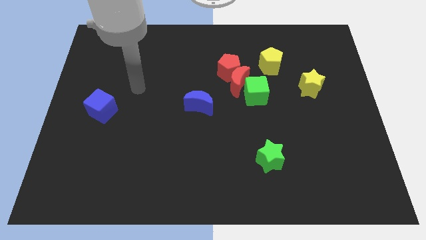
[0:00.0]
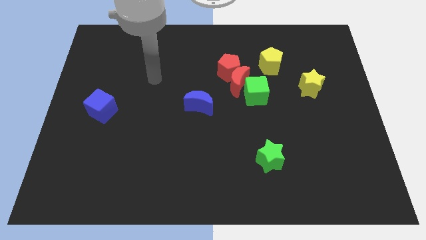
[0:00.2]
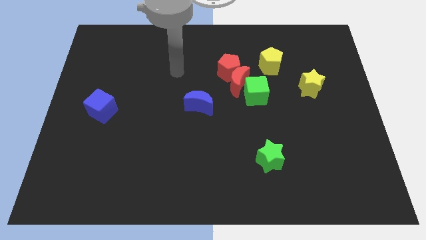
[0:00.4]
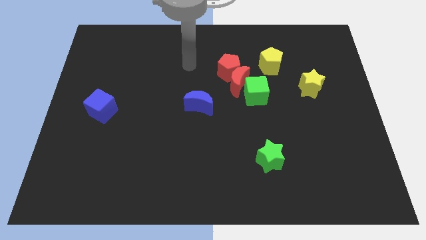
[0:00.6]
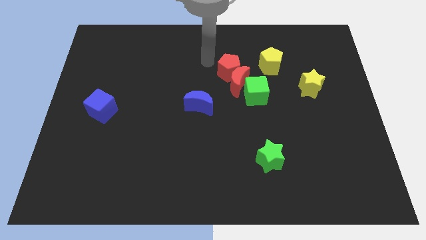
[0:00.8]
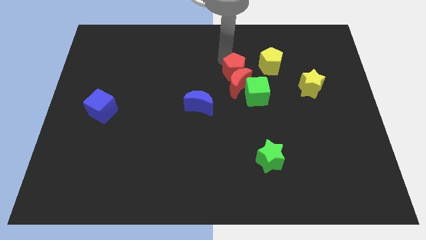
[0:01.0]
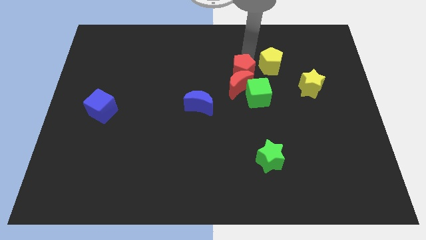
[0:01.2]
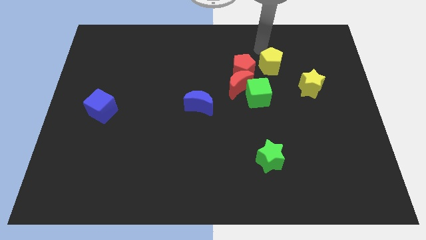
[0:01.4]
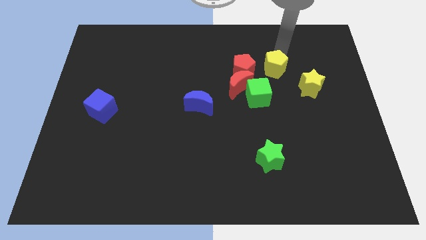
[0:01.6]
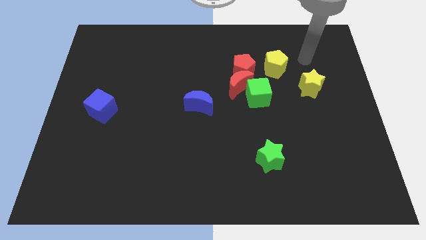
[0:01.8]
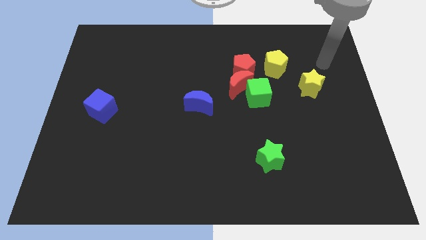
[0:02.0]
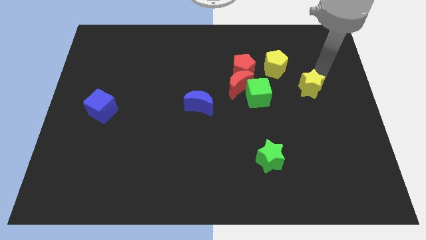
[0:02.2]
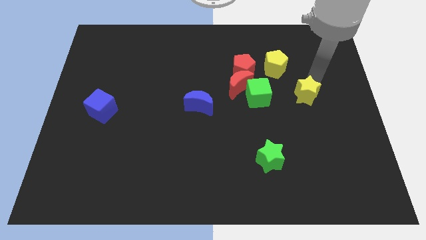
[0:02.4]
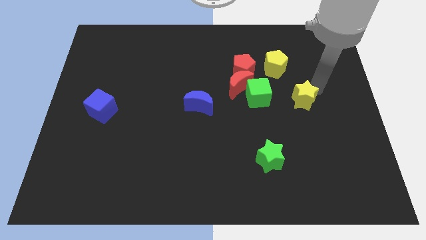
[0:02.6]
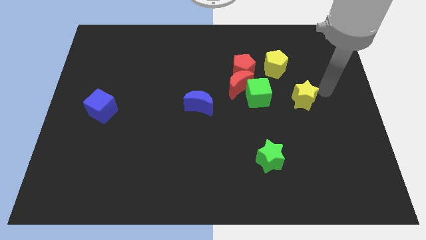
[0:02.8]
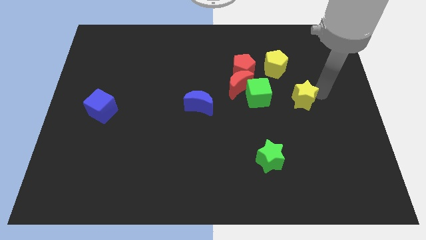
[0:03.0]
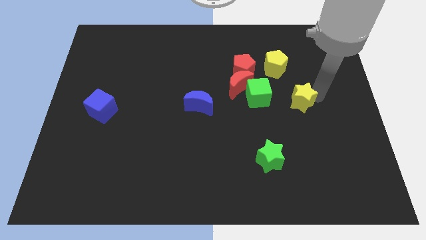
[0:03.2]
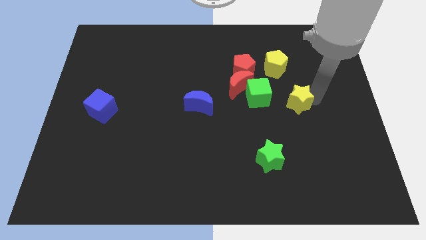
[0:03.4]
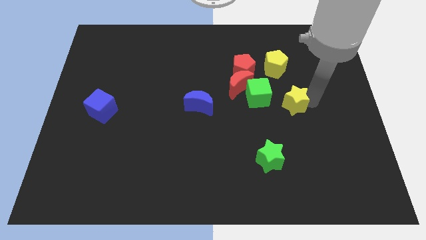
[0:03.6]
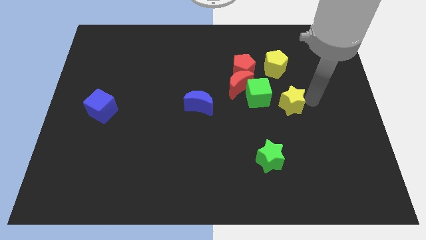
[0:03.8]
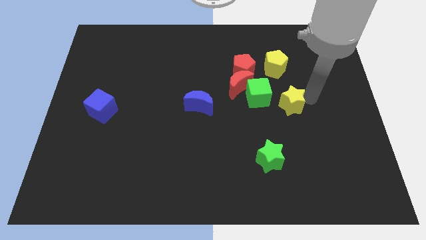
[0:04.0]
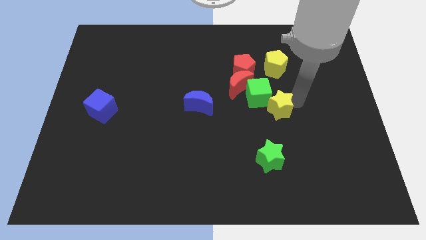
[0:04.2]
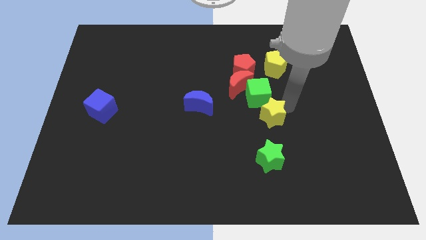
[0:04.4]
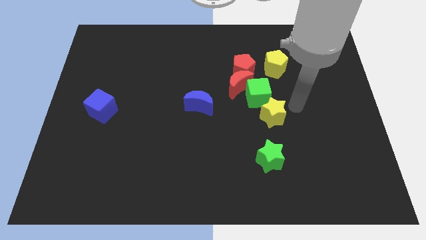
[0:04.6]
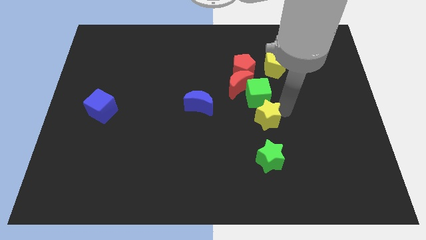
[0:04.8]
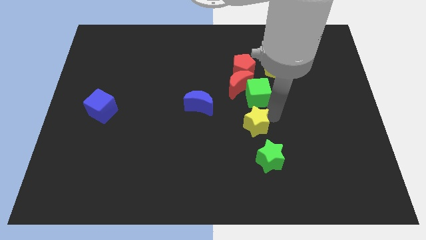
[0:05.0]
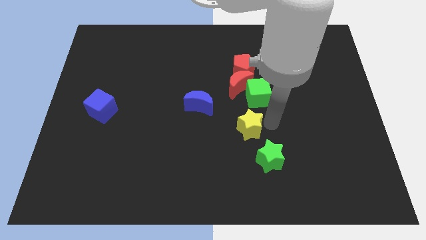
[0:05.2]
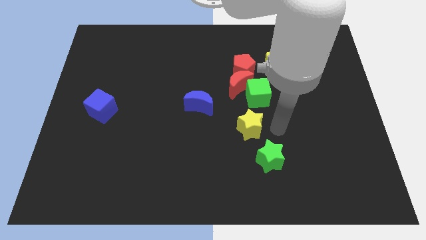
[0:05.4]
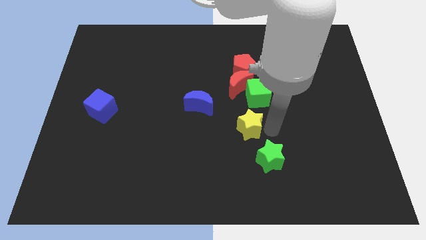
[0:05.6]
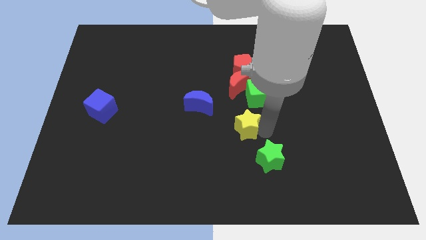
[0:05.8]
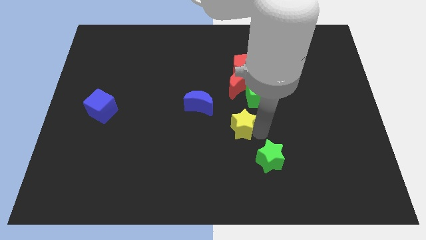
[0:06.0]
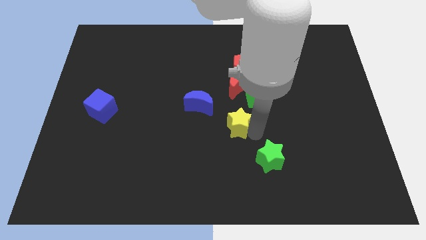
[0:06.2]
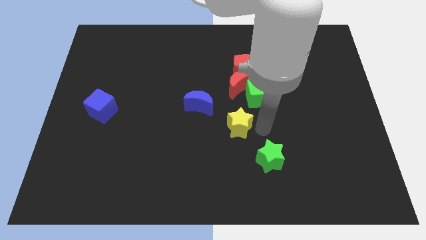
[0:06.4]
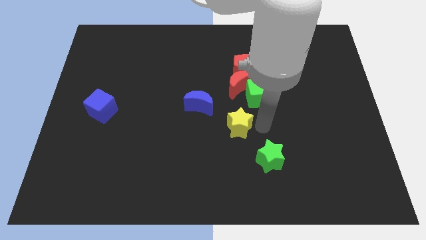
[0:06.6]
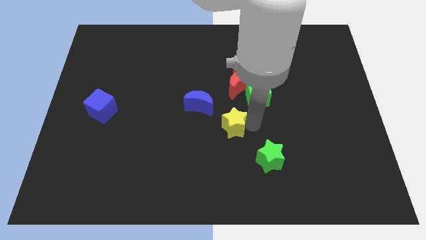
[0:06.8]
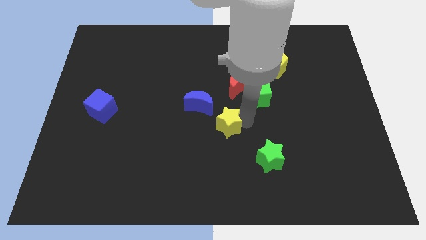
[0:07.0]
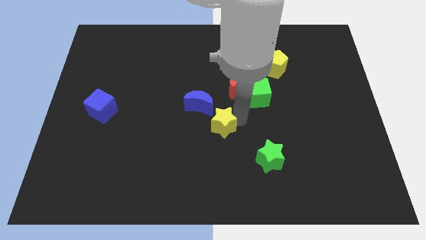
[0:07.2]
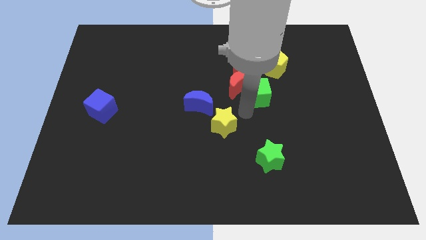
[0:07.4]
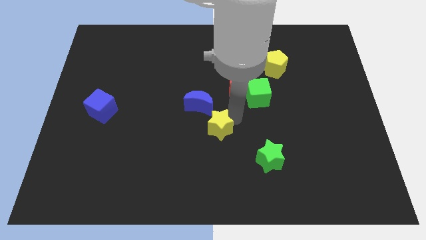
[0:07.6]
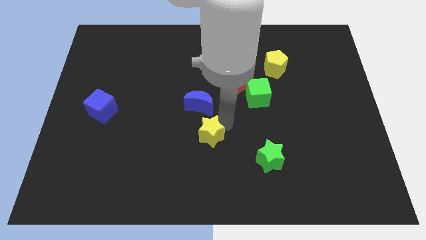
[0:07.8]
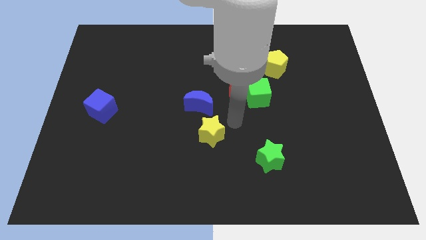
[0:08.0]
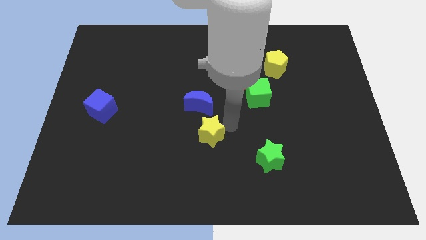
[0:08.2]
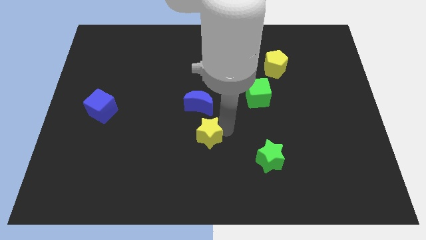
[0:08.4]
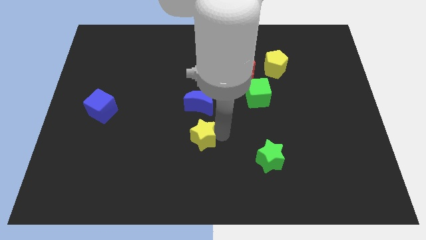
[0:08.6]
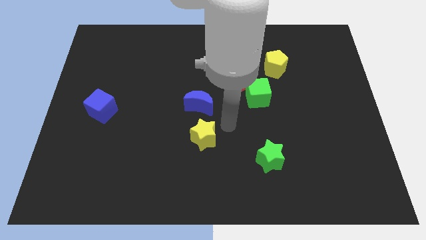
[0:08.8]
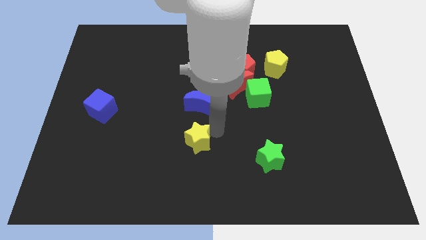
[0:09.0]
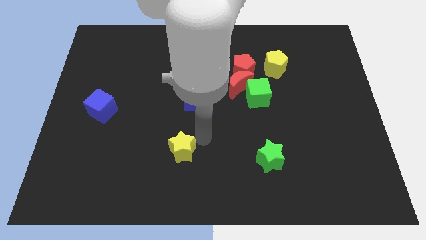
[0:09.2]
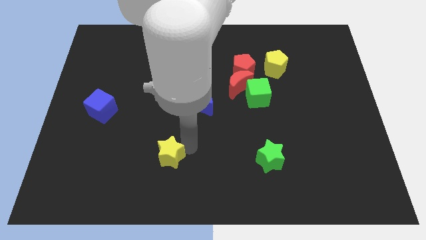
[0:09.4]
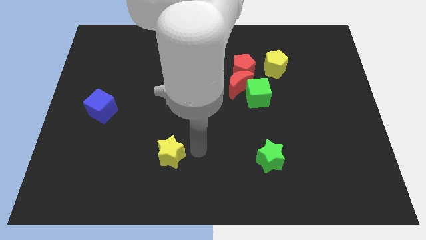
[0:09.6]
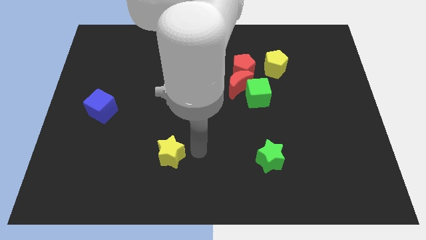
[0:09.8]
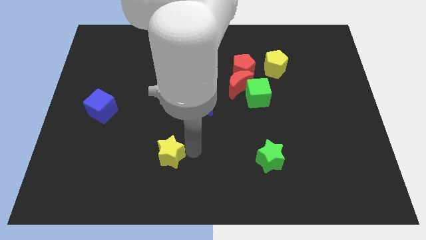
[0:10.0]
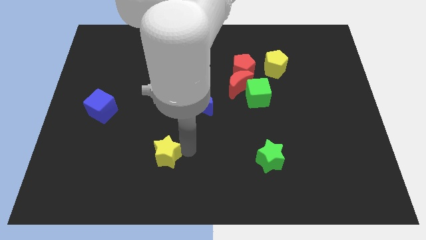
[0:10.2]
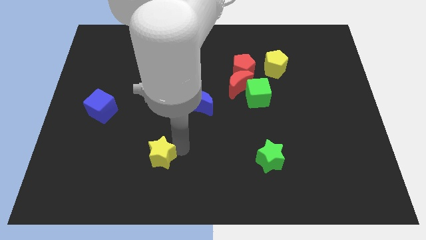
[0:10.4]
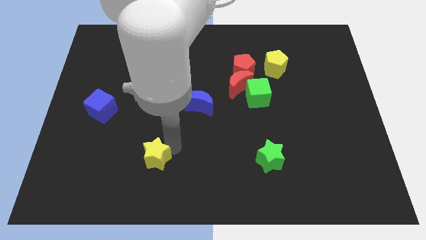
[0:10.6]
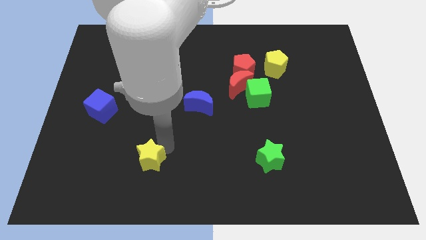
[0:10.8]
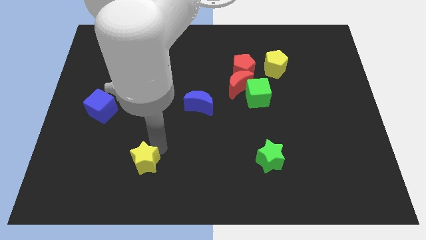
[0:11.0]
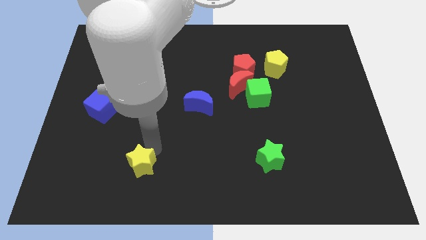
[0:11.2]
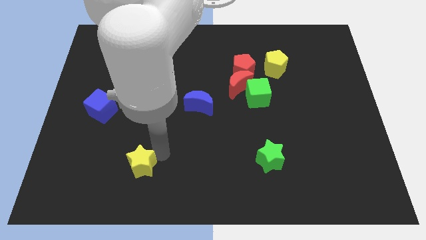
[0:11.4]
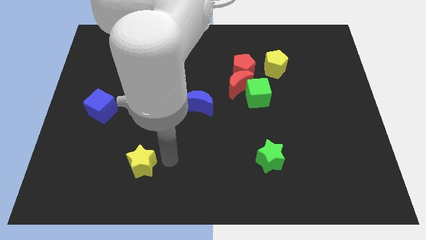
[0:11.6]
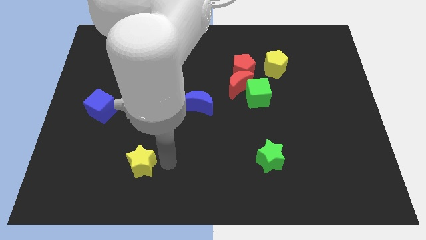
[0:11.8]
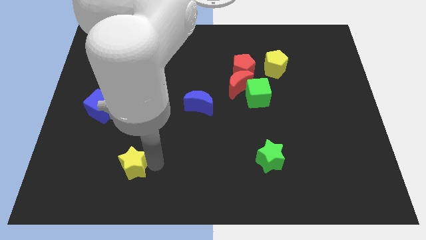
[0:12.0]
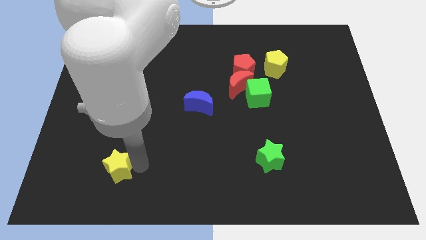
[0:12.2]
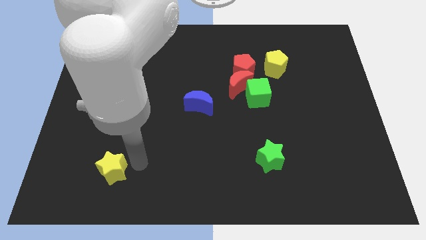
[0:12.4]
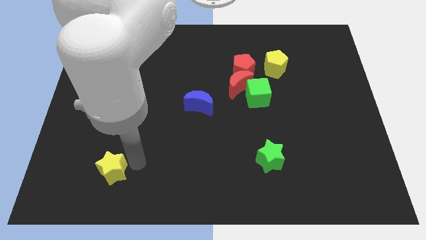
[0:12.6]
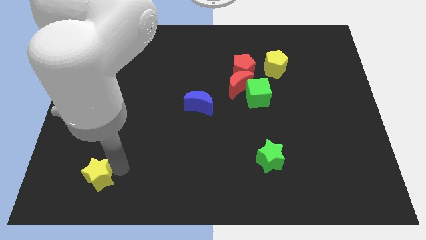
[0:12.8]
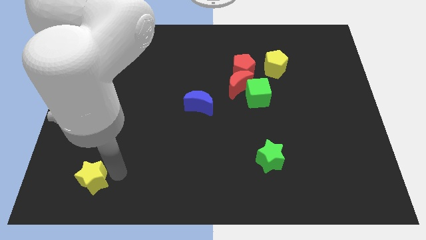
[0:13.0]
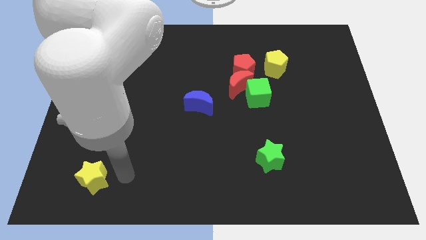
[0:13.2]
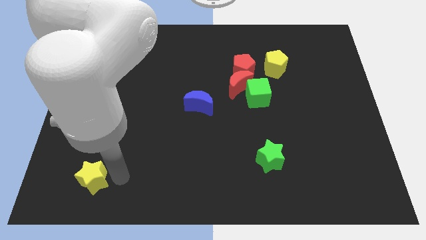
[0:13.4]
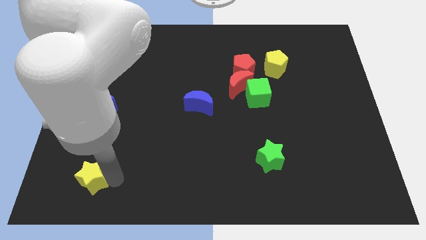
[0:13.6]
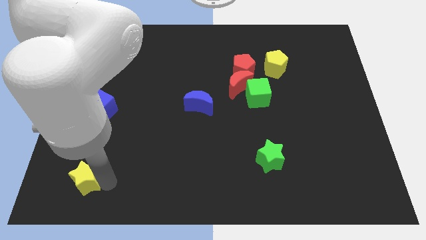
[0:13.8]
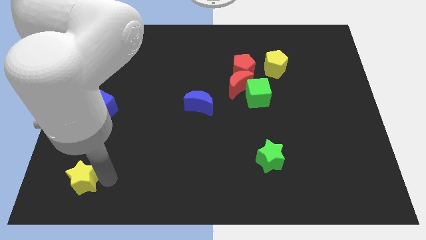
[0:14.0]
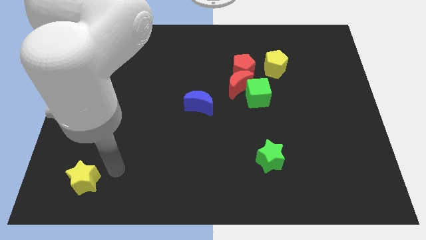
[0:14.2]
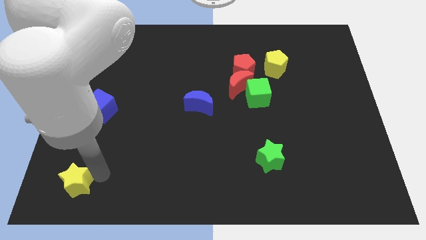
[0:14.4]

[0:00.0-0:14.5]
put the yellow star to the bottom left
